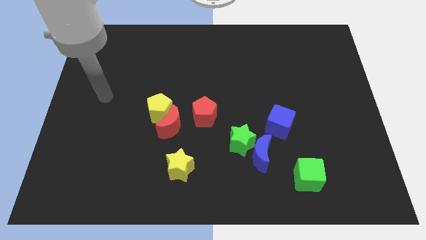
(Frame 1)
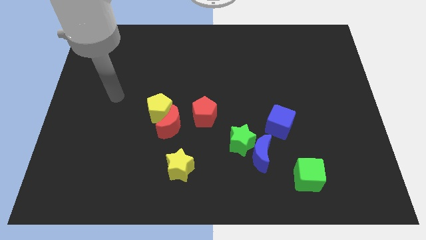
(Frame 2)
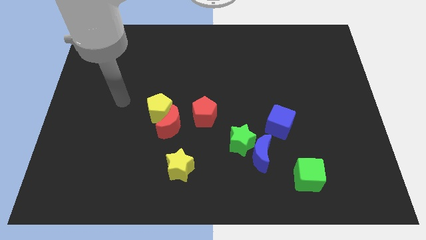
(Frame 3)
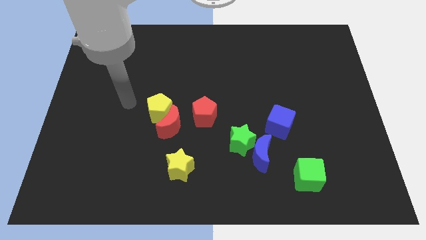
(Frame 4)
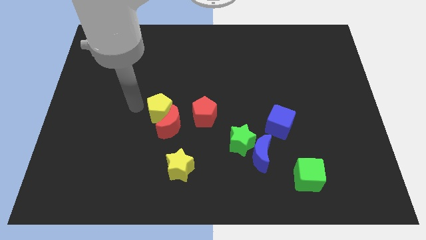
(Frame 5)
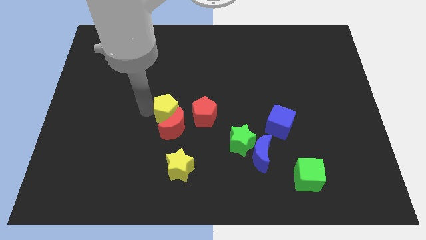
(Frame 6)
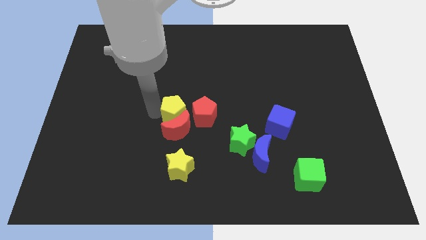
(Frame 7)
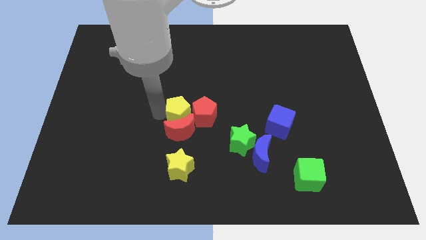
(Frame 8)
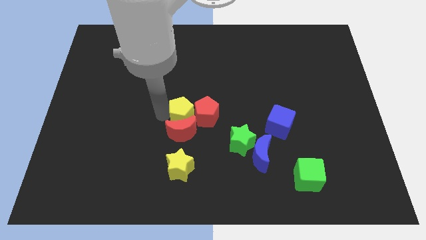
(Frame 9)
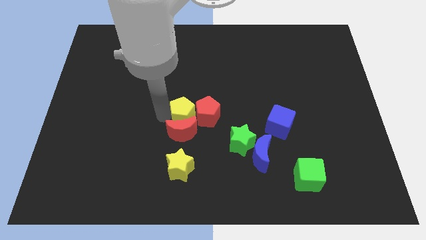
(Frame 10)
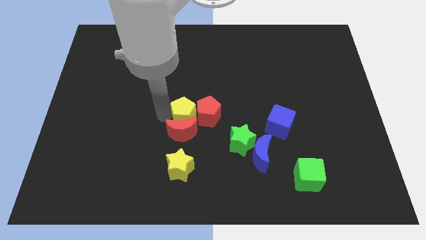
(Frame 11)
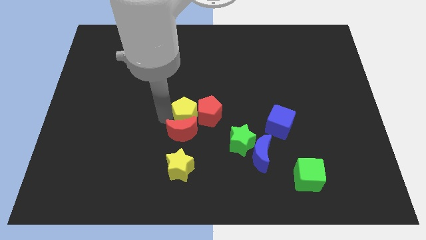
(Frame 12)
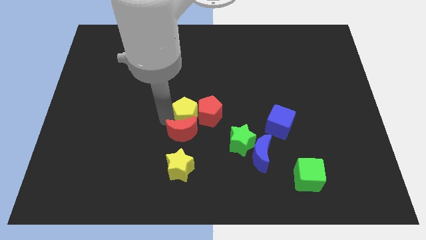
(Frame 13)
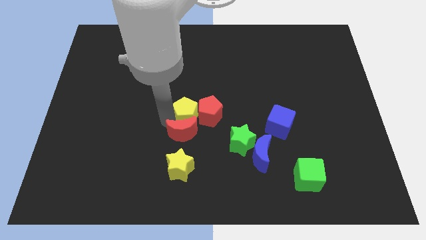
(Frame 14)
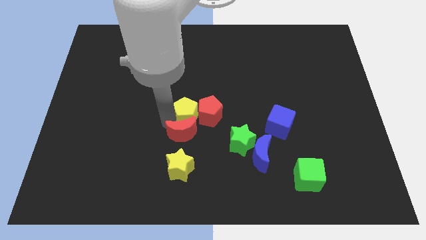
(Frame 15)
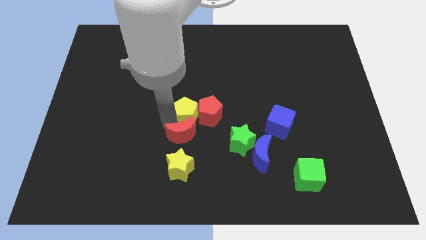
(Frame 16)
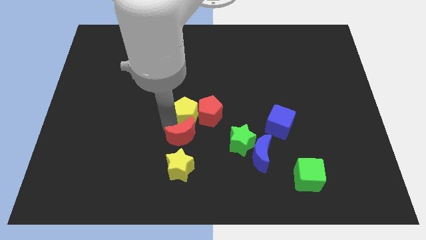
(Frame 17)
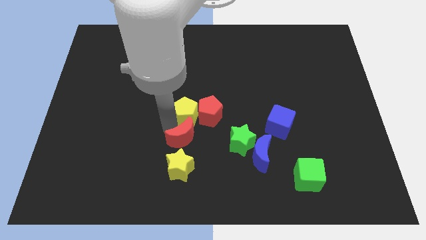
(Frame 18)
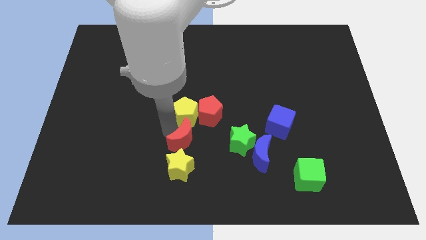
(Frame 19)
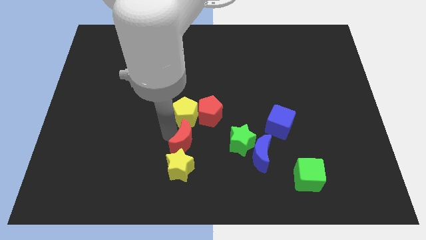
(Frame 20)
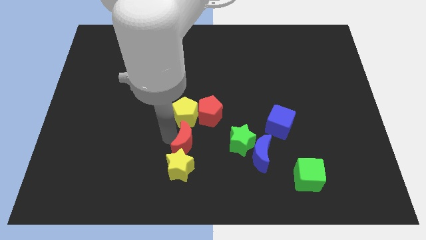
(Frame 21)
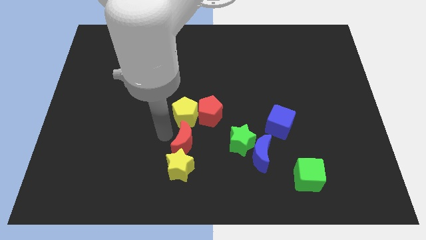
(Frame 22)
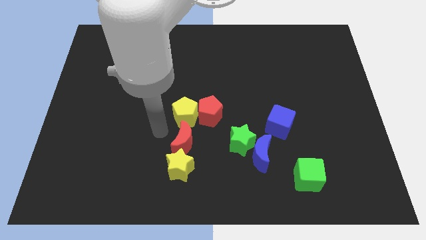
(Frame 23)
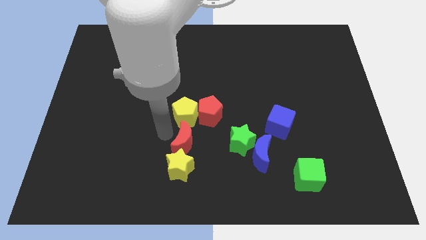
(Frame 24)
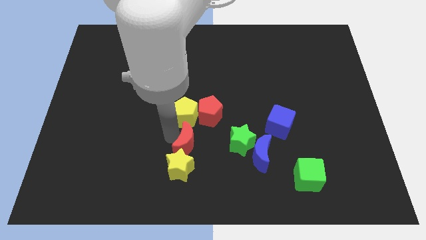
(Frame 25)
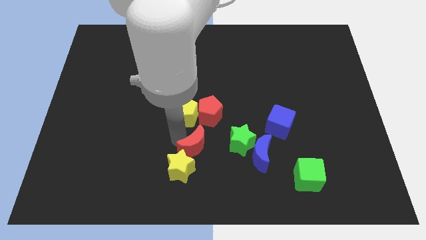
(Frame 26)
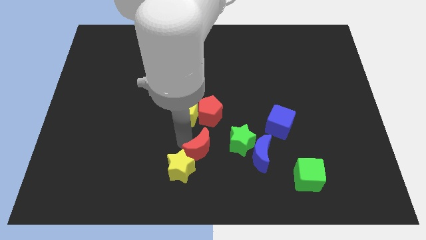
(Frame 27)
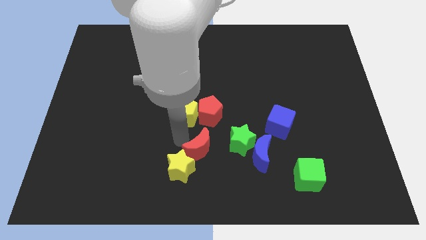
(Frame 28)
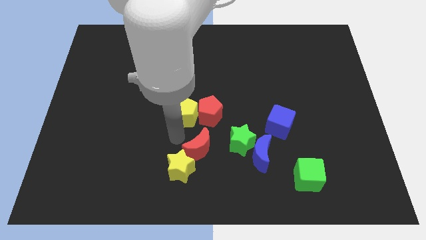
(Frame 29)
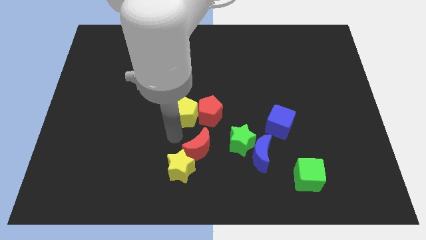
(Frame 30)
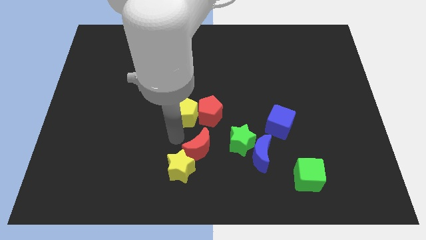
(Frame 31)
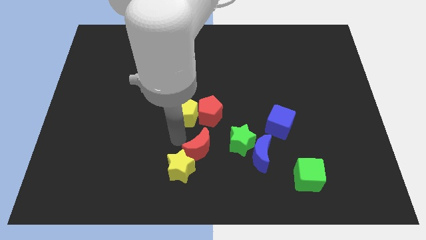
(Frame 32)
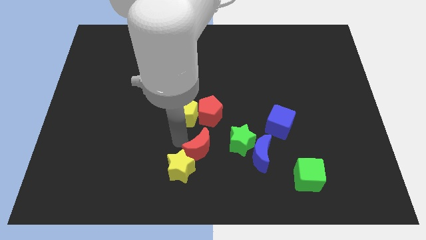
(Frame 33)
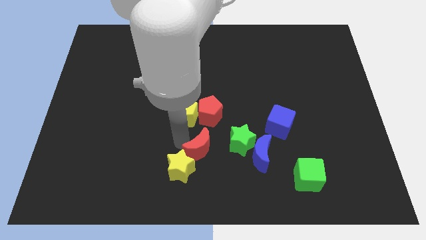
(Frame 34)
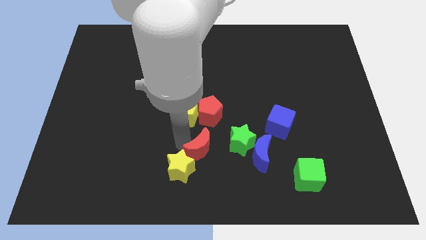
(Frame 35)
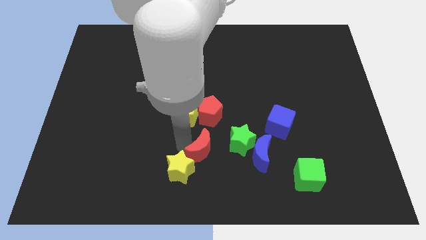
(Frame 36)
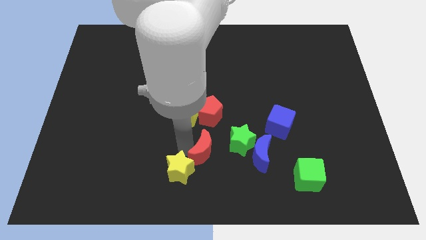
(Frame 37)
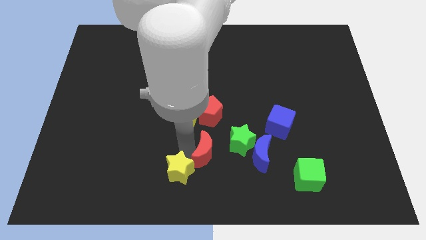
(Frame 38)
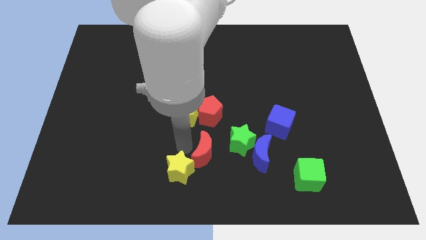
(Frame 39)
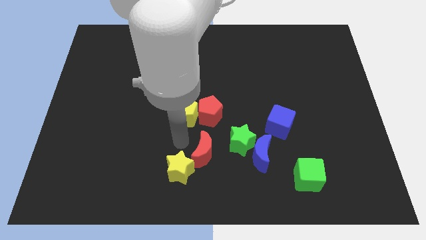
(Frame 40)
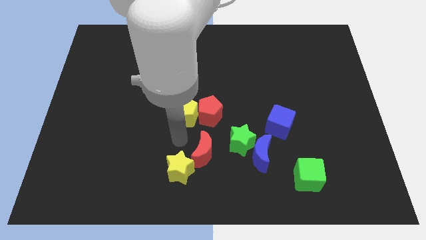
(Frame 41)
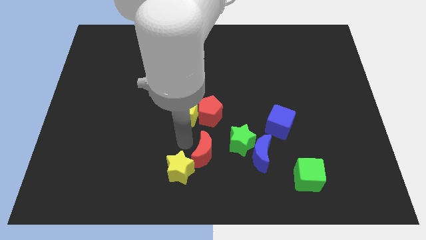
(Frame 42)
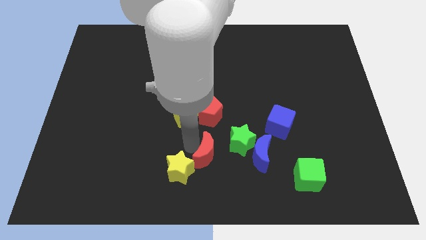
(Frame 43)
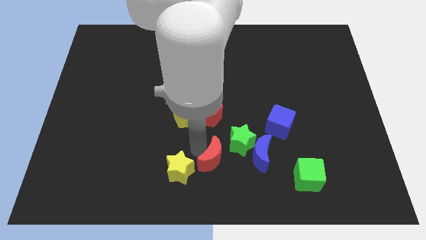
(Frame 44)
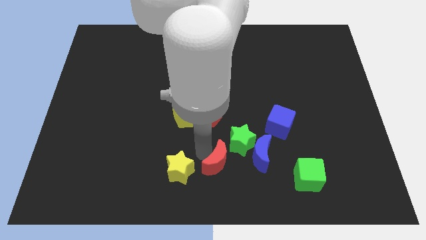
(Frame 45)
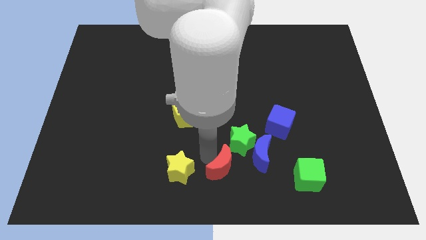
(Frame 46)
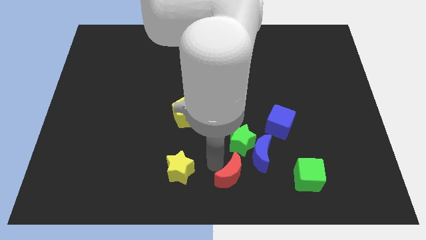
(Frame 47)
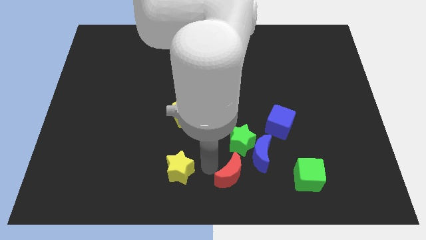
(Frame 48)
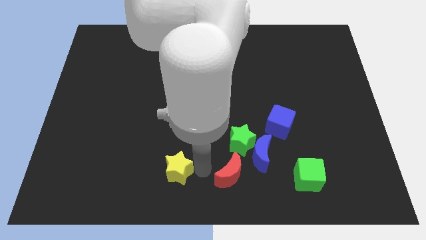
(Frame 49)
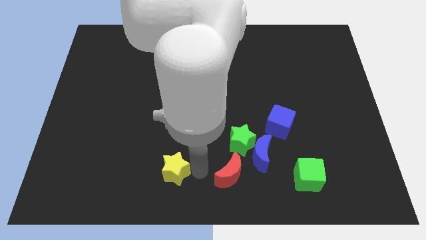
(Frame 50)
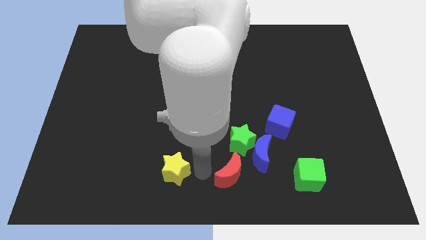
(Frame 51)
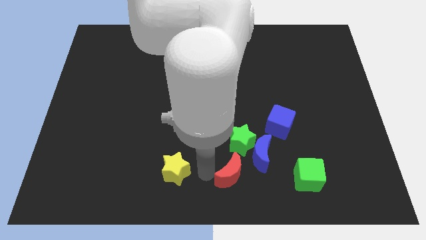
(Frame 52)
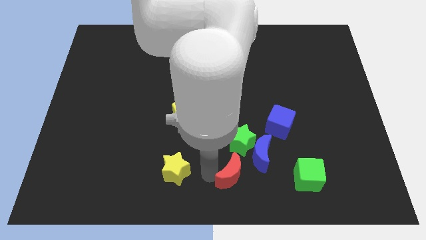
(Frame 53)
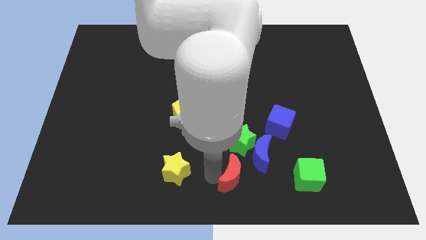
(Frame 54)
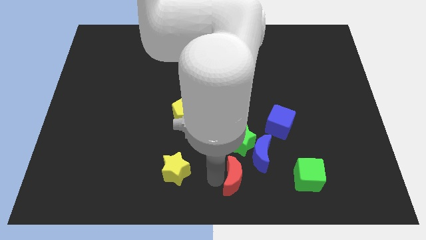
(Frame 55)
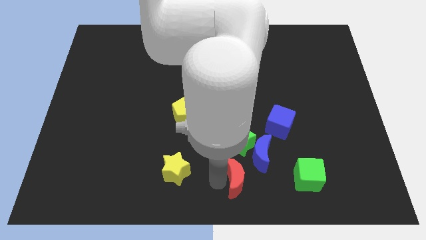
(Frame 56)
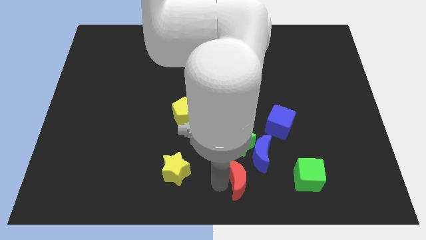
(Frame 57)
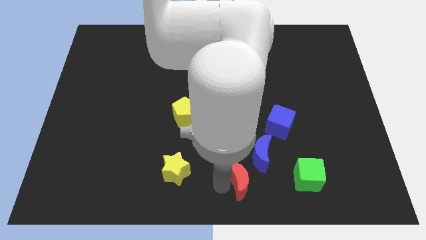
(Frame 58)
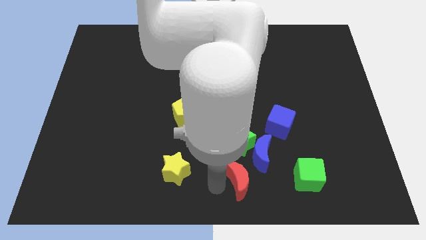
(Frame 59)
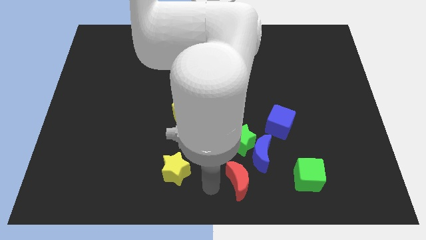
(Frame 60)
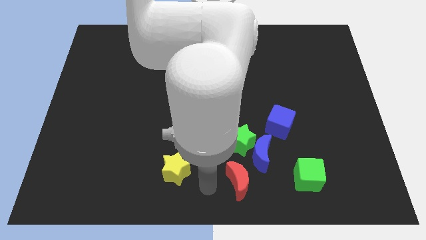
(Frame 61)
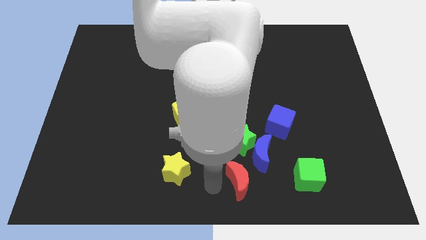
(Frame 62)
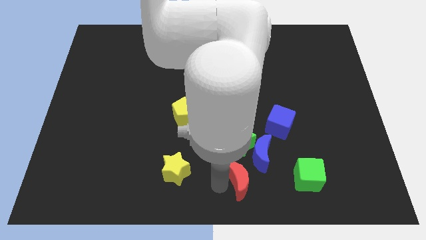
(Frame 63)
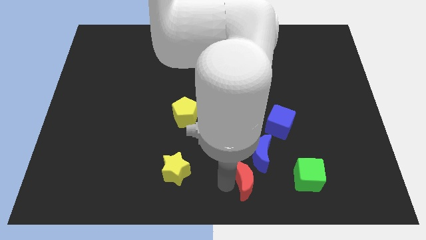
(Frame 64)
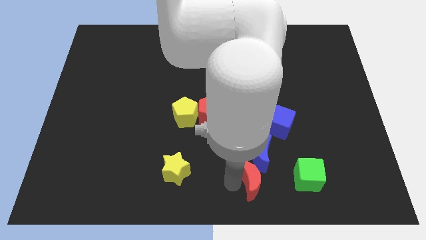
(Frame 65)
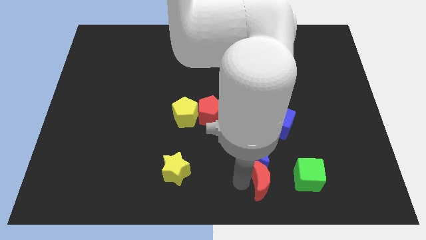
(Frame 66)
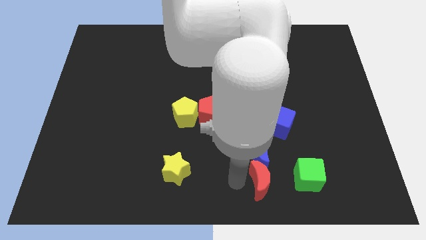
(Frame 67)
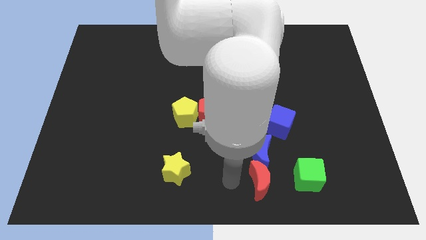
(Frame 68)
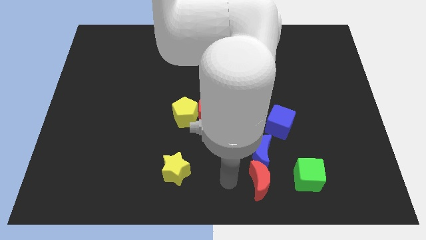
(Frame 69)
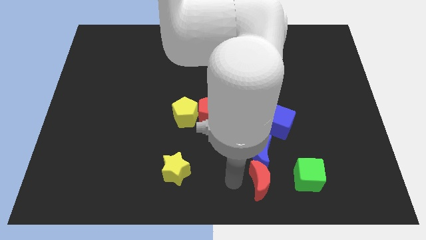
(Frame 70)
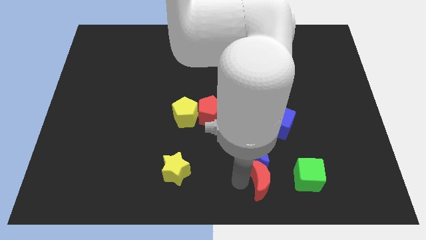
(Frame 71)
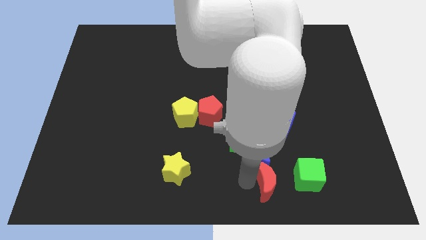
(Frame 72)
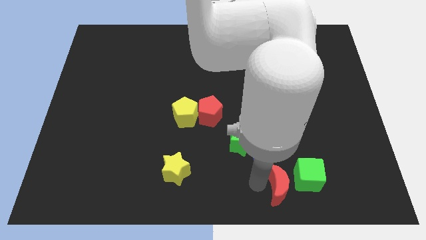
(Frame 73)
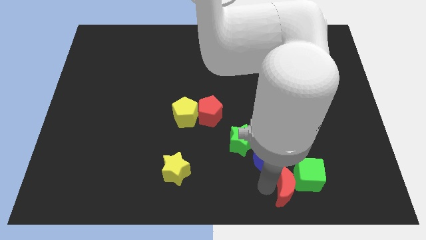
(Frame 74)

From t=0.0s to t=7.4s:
push the red moon next to the green cube
